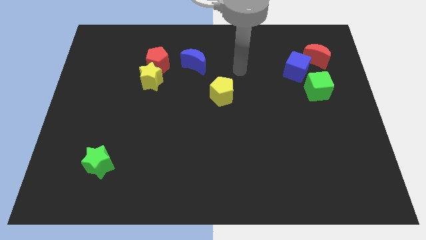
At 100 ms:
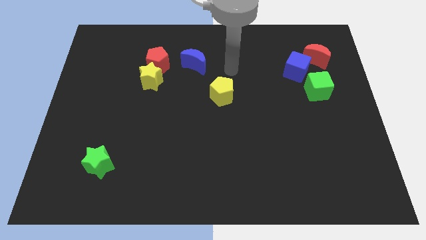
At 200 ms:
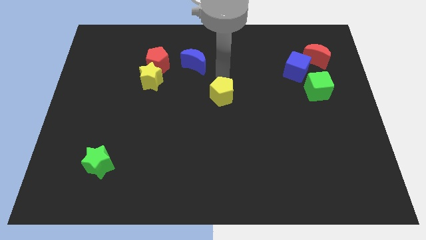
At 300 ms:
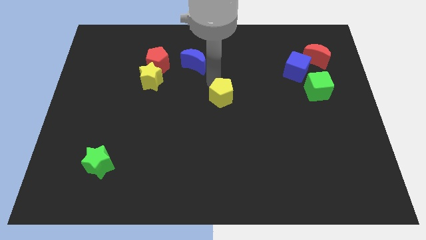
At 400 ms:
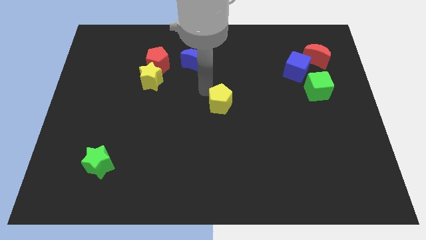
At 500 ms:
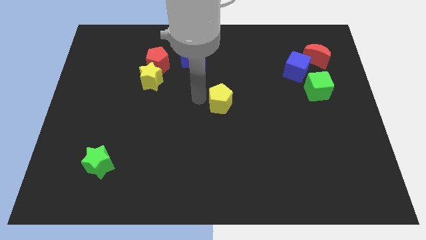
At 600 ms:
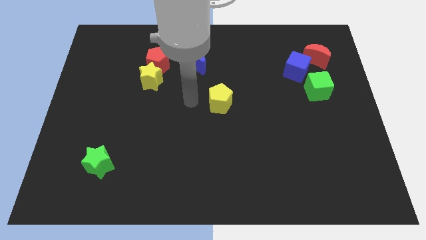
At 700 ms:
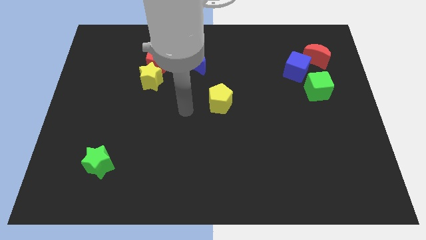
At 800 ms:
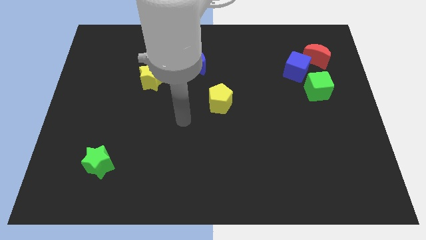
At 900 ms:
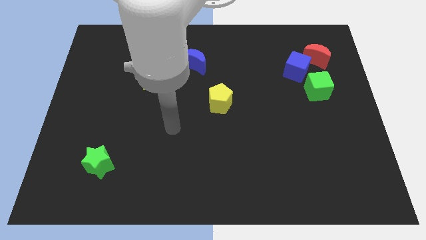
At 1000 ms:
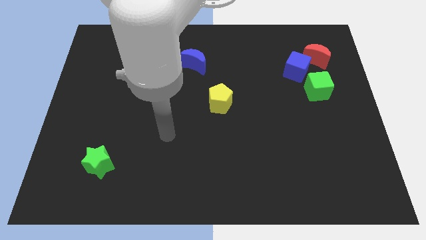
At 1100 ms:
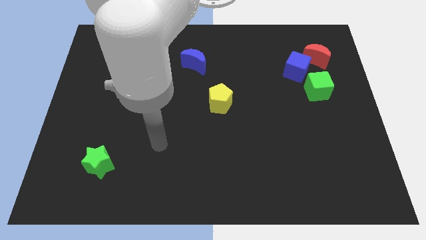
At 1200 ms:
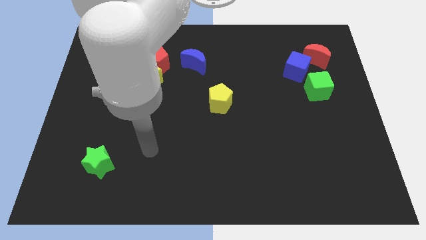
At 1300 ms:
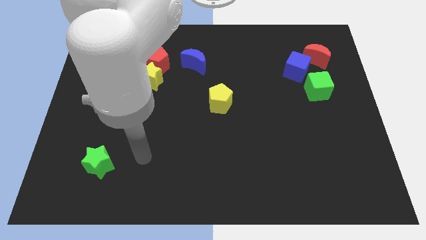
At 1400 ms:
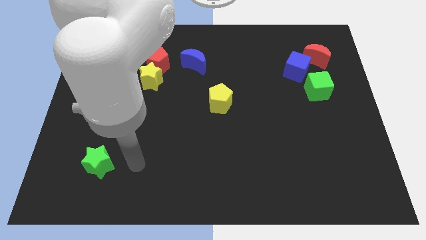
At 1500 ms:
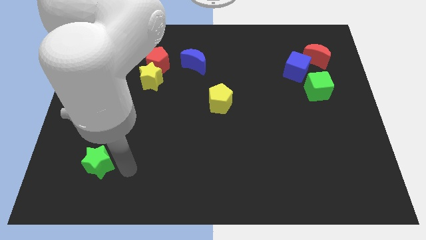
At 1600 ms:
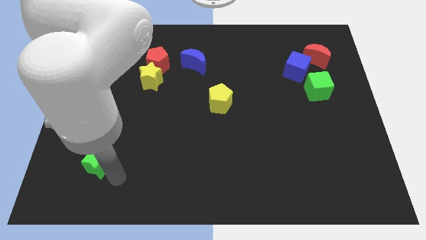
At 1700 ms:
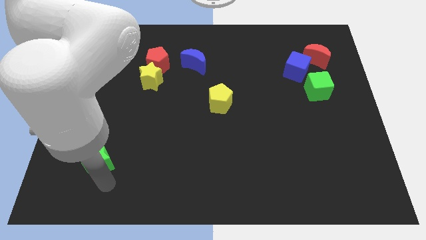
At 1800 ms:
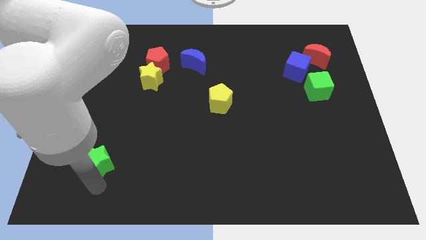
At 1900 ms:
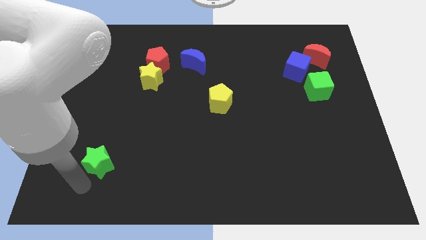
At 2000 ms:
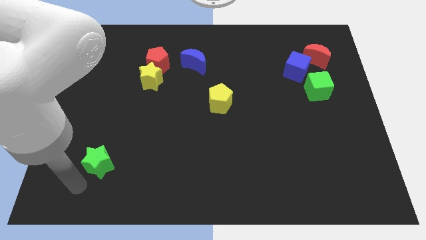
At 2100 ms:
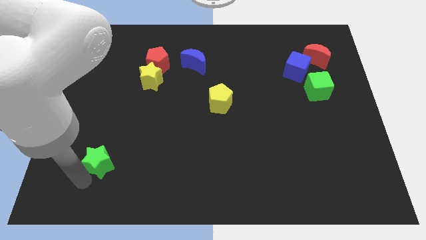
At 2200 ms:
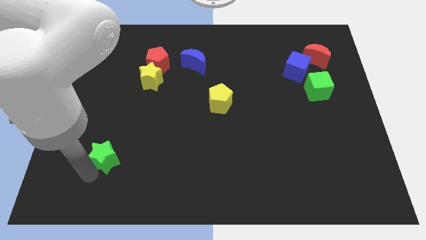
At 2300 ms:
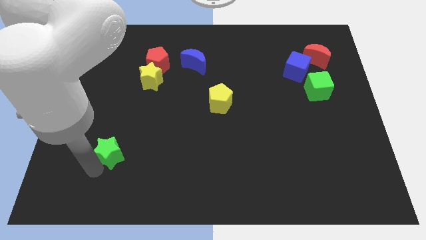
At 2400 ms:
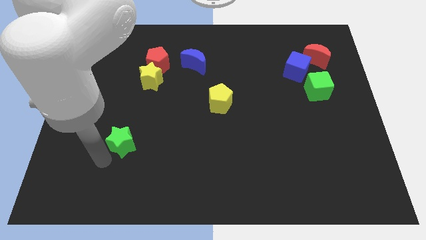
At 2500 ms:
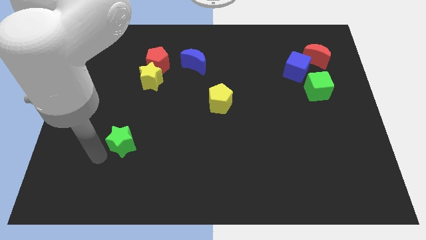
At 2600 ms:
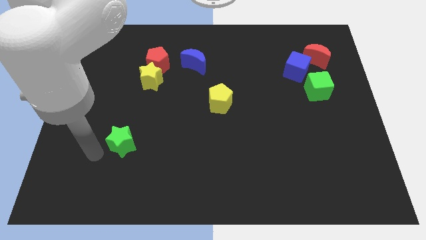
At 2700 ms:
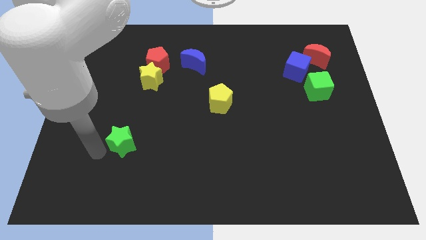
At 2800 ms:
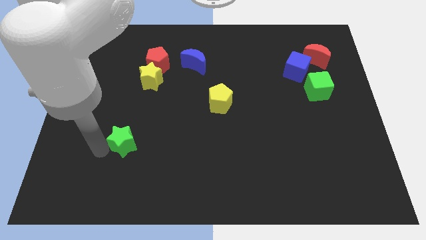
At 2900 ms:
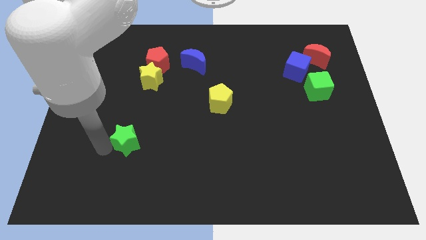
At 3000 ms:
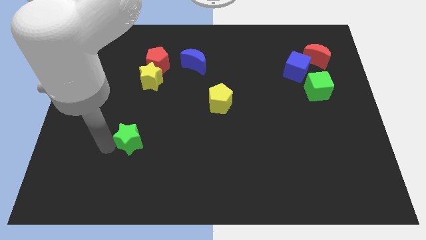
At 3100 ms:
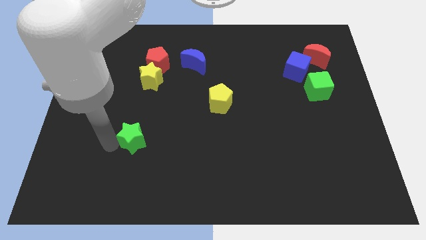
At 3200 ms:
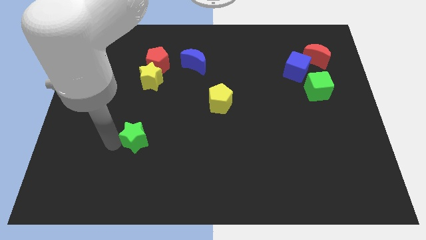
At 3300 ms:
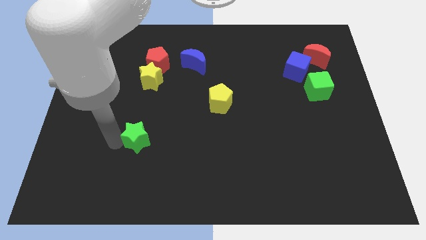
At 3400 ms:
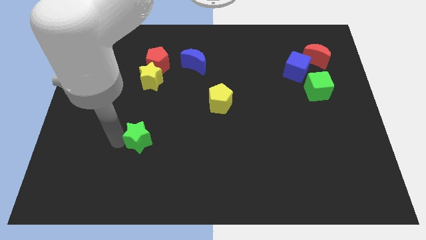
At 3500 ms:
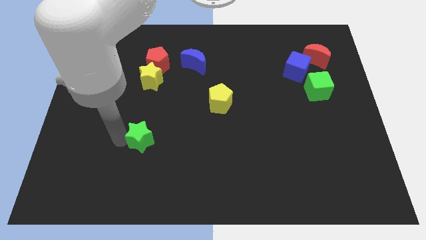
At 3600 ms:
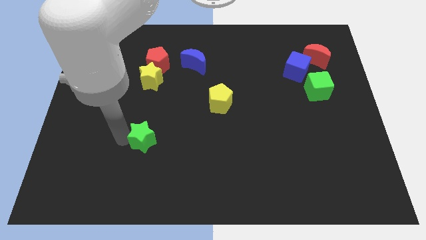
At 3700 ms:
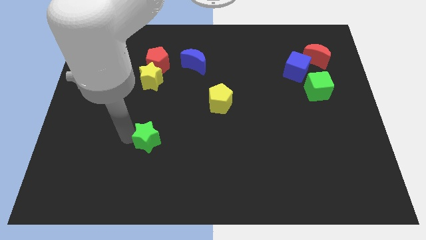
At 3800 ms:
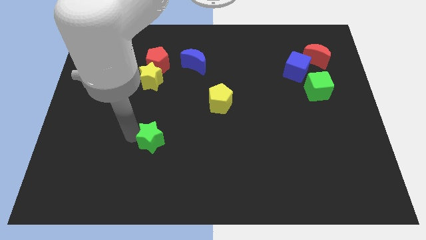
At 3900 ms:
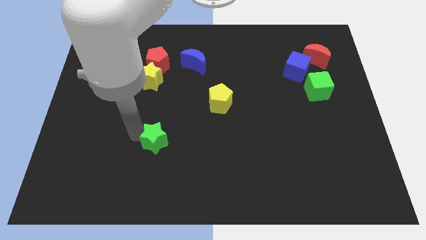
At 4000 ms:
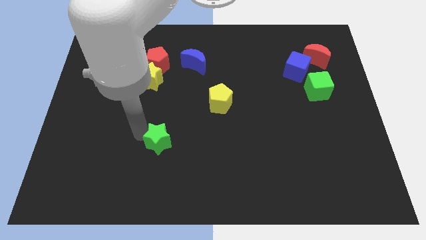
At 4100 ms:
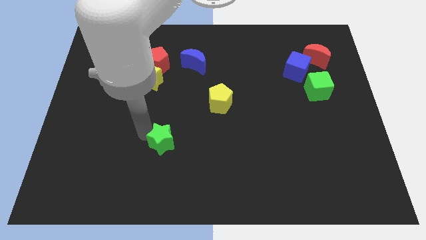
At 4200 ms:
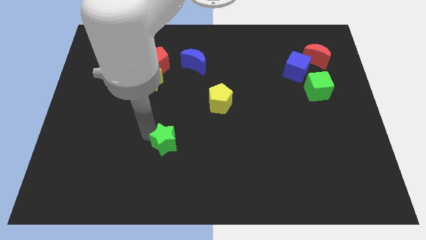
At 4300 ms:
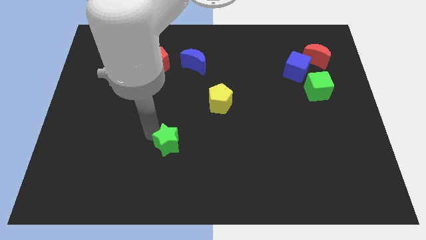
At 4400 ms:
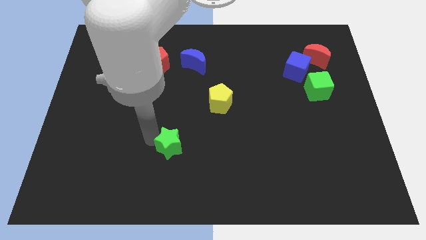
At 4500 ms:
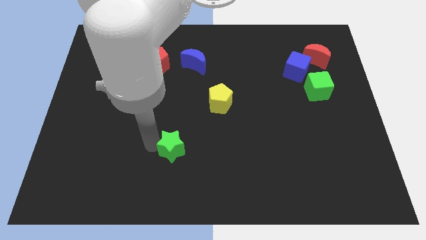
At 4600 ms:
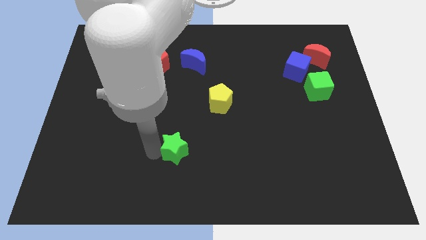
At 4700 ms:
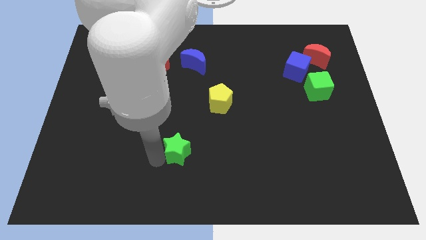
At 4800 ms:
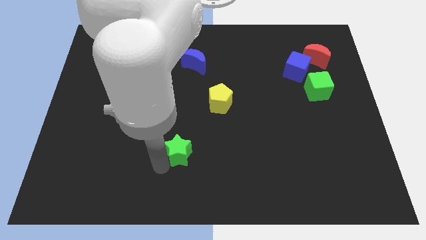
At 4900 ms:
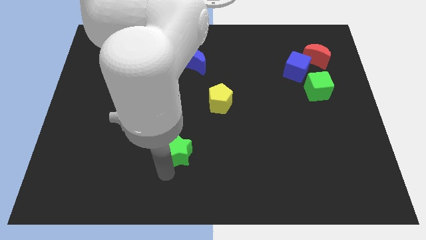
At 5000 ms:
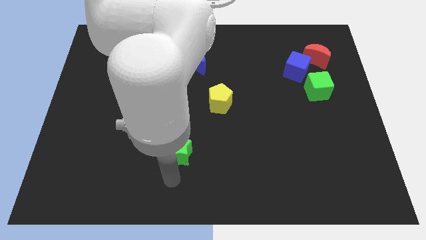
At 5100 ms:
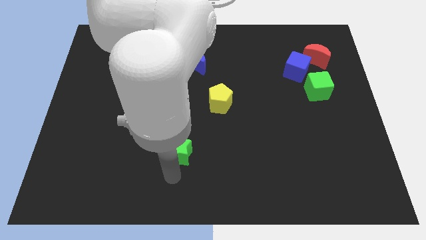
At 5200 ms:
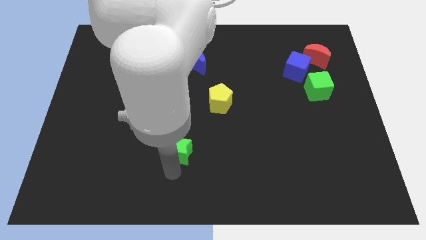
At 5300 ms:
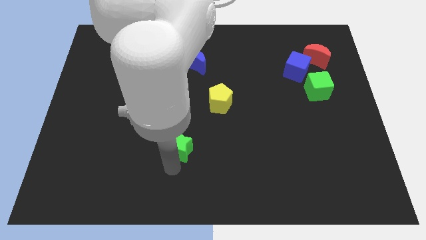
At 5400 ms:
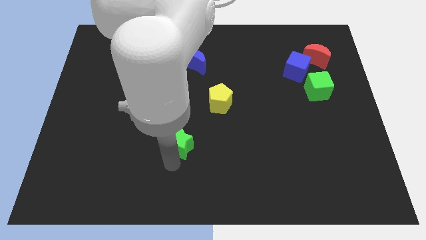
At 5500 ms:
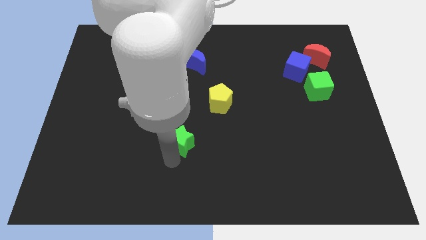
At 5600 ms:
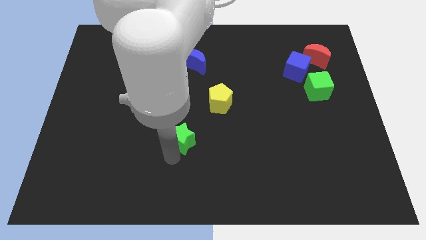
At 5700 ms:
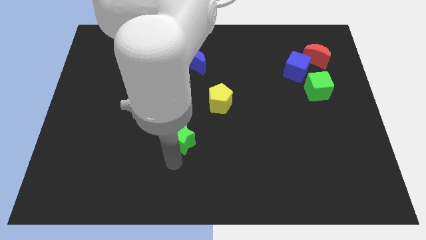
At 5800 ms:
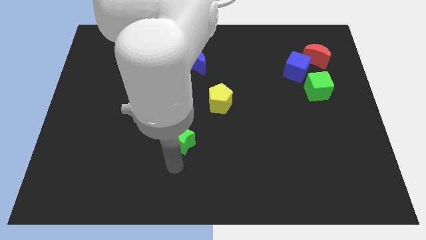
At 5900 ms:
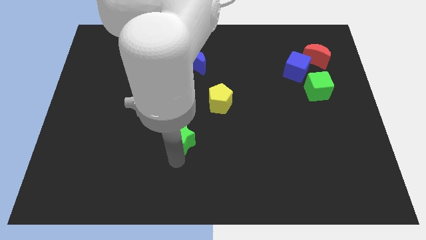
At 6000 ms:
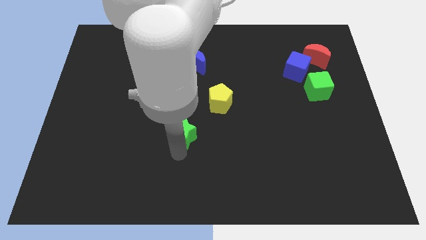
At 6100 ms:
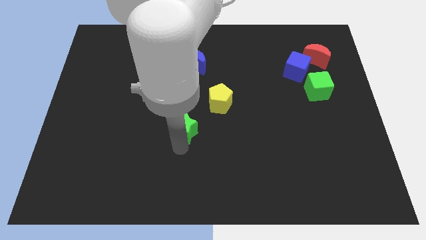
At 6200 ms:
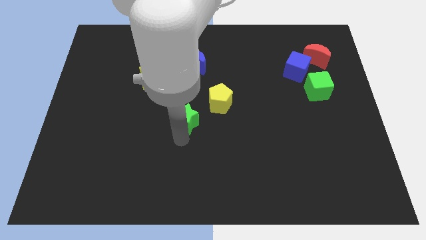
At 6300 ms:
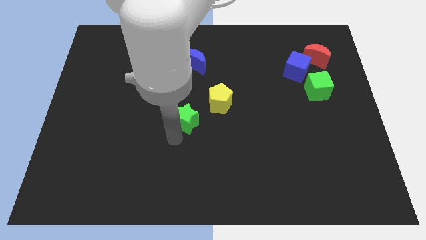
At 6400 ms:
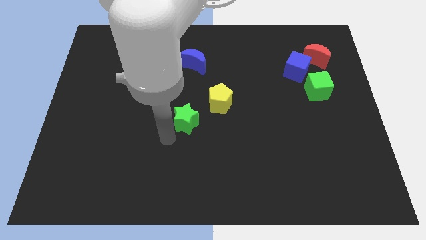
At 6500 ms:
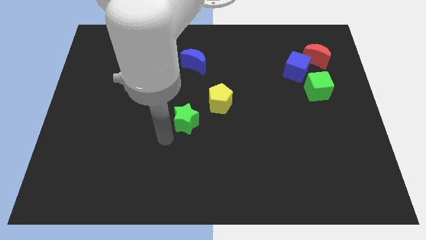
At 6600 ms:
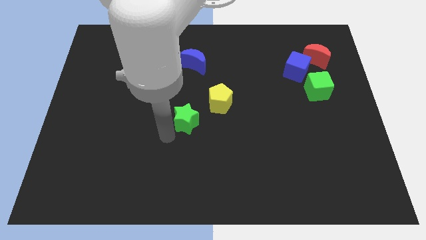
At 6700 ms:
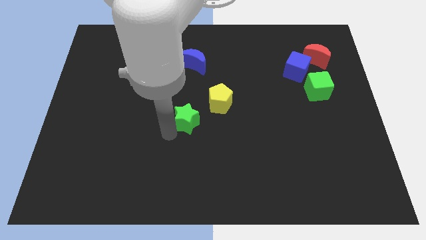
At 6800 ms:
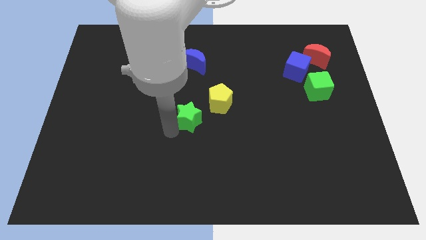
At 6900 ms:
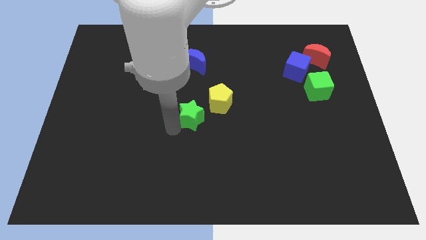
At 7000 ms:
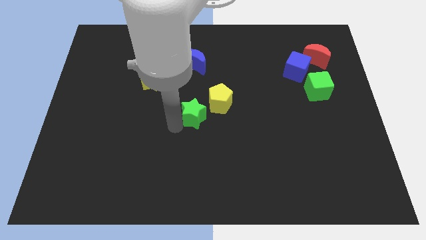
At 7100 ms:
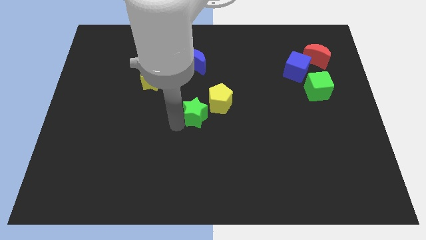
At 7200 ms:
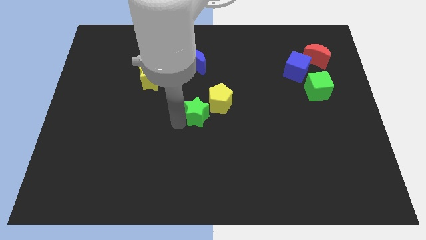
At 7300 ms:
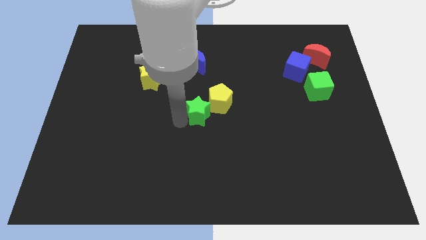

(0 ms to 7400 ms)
slide the green star to the yellow pentagon
